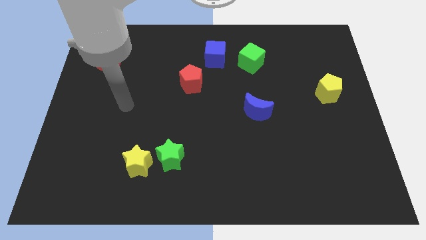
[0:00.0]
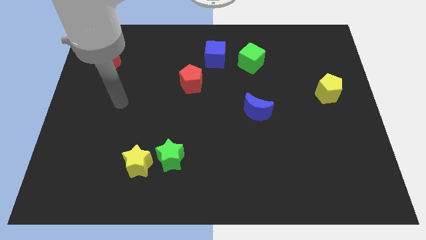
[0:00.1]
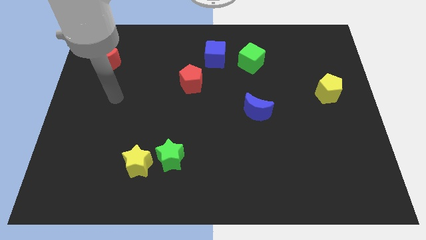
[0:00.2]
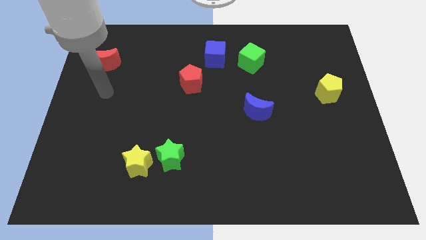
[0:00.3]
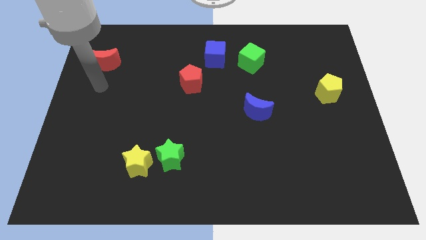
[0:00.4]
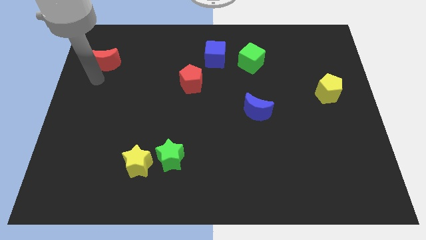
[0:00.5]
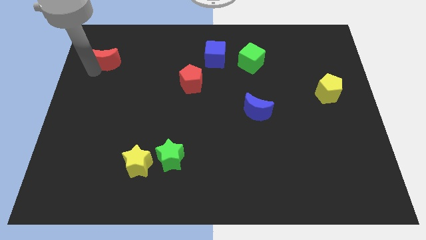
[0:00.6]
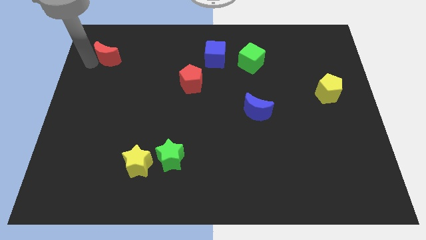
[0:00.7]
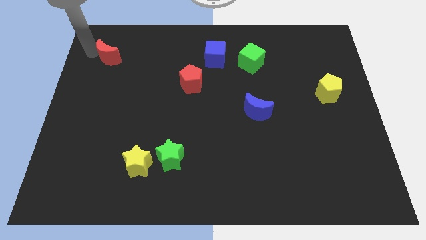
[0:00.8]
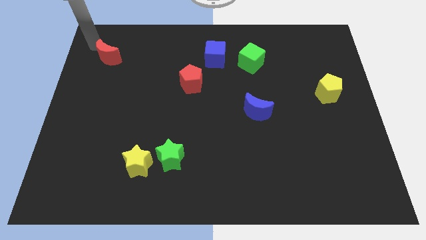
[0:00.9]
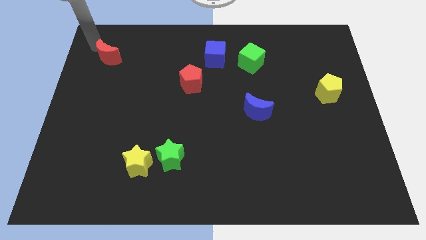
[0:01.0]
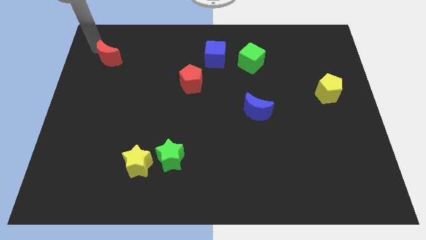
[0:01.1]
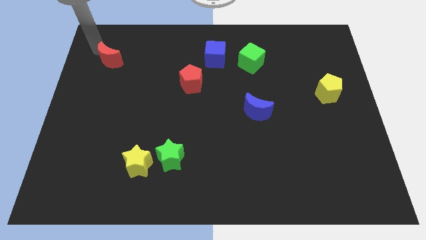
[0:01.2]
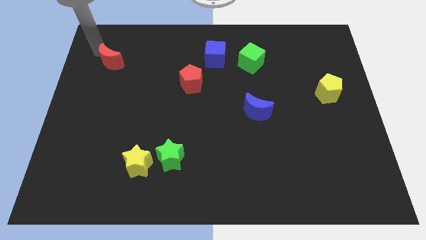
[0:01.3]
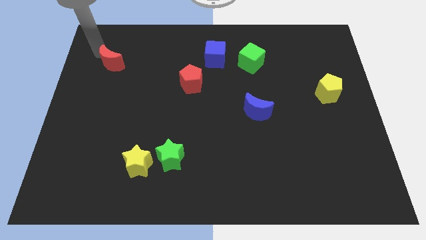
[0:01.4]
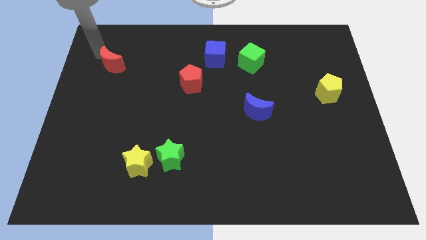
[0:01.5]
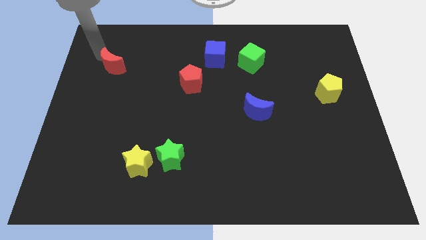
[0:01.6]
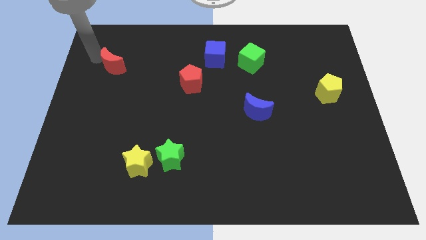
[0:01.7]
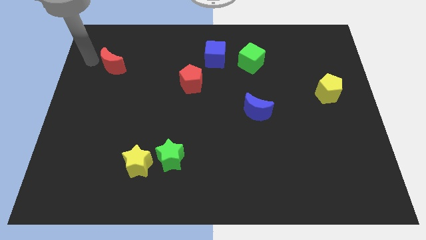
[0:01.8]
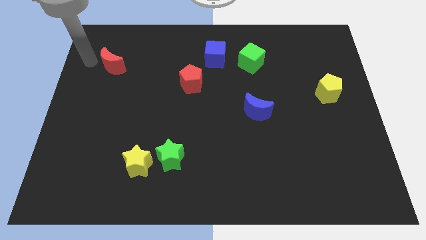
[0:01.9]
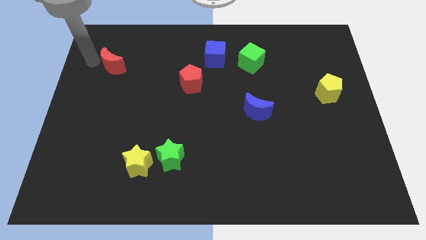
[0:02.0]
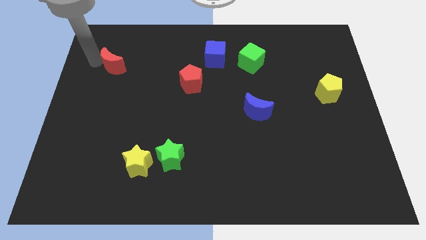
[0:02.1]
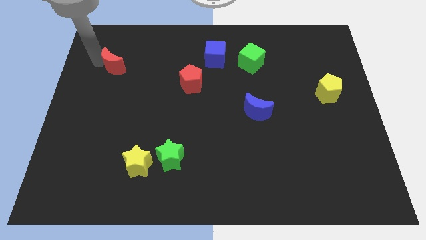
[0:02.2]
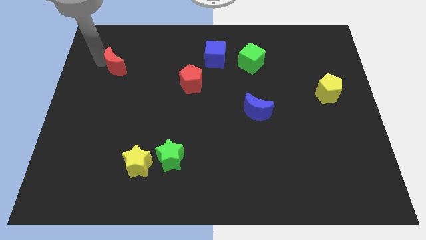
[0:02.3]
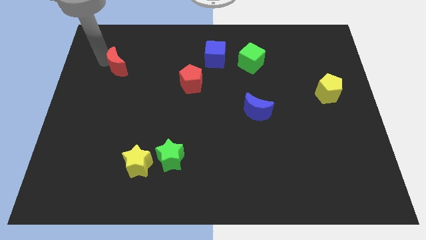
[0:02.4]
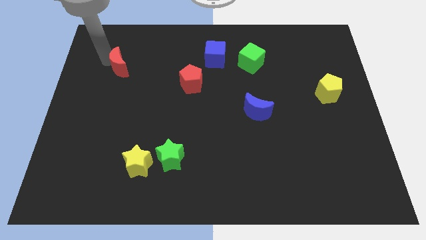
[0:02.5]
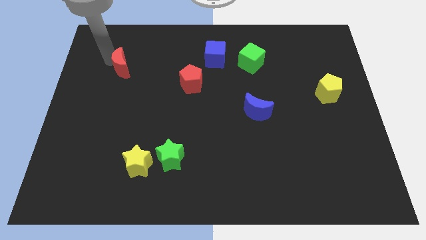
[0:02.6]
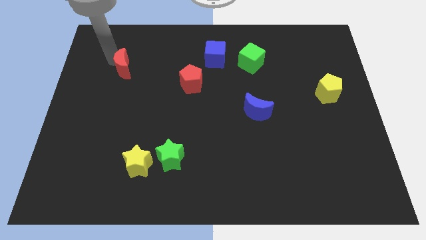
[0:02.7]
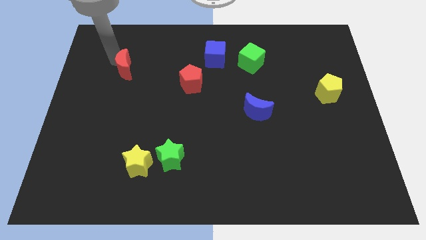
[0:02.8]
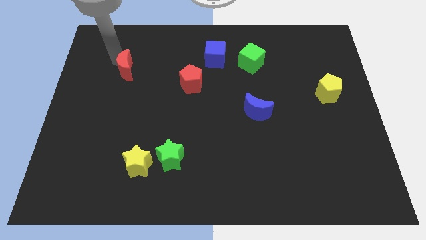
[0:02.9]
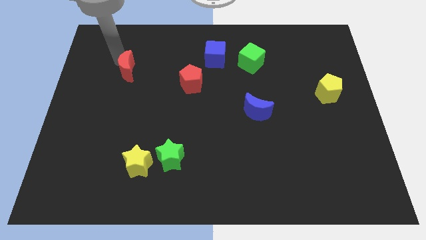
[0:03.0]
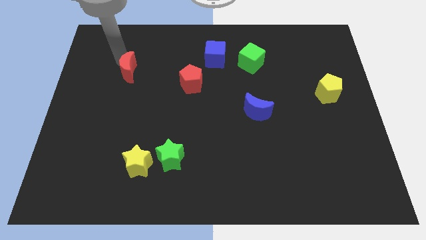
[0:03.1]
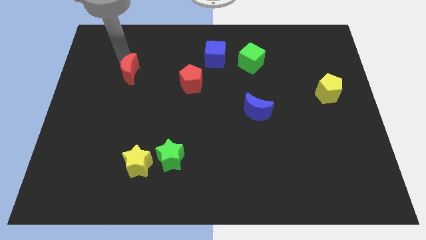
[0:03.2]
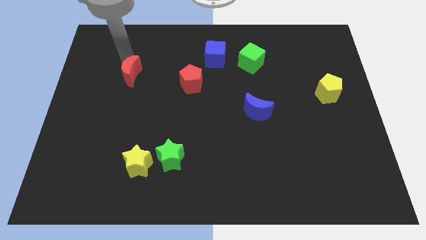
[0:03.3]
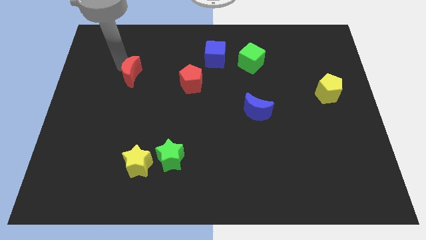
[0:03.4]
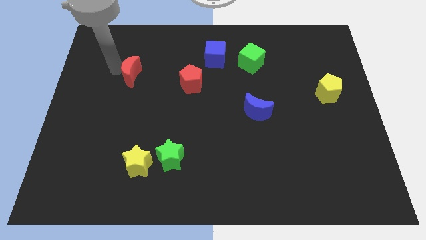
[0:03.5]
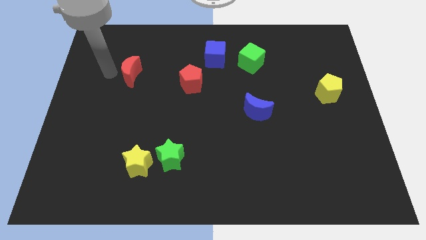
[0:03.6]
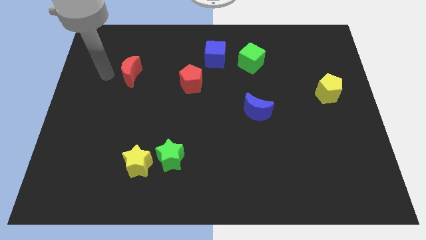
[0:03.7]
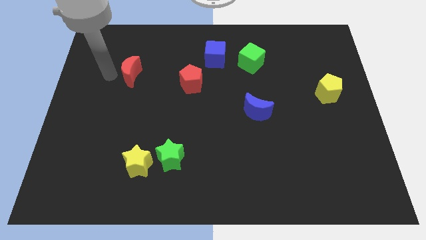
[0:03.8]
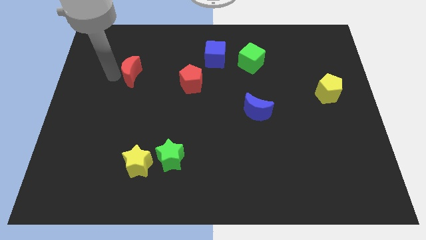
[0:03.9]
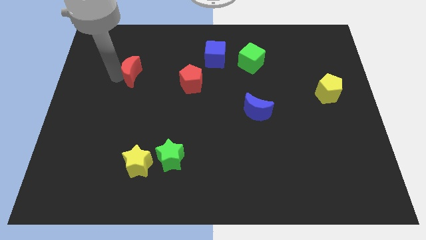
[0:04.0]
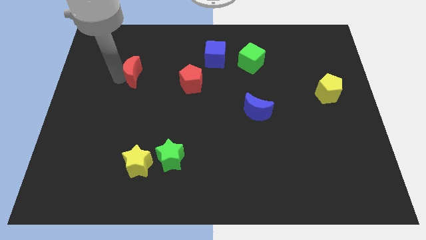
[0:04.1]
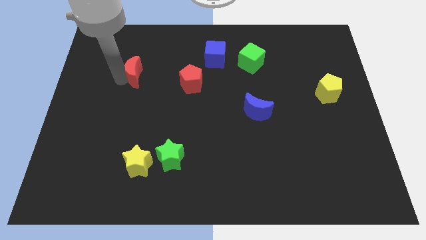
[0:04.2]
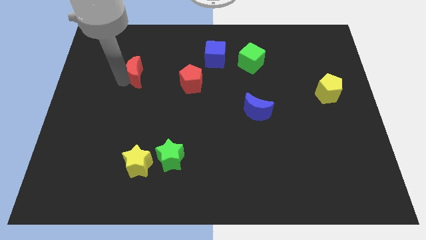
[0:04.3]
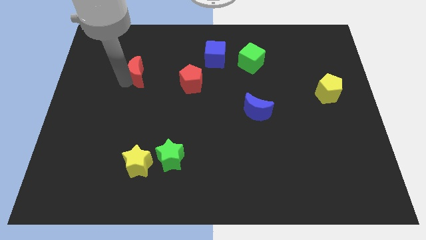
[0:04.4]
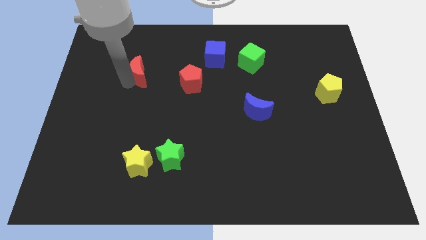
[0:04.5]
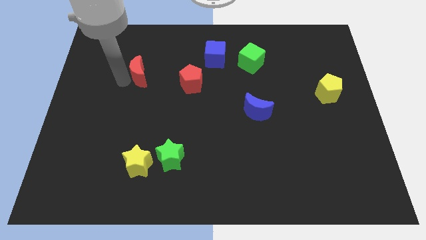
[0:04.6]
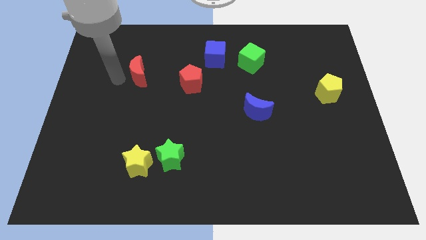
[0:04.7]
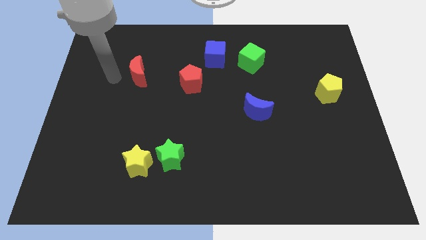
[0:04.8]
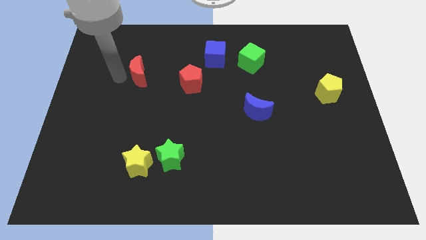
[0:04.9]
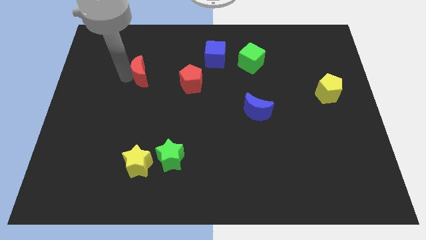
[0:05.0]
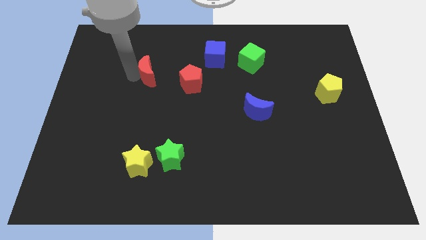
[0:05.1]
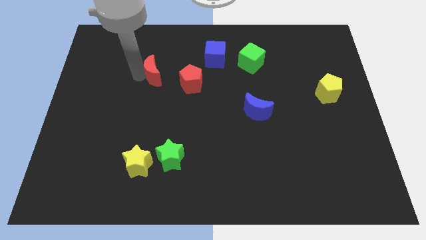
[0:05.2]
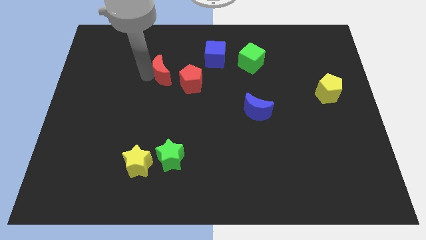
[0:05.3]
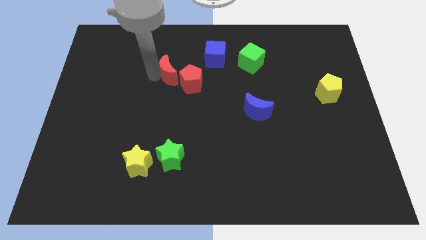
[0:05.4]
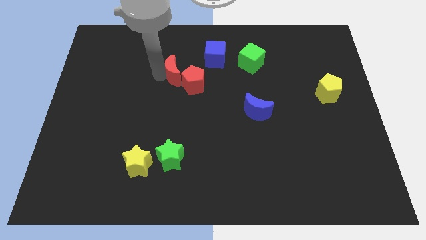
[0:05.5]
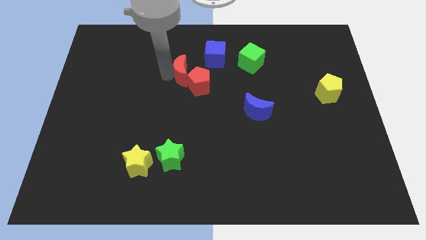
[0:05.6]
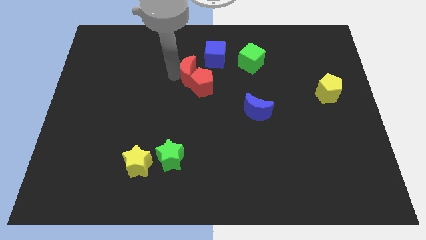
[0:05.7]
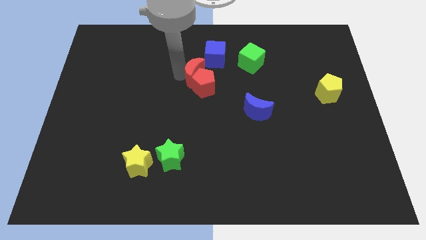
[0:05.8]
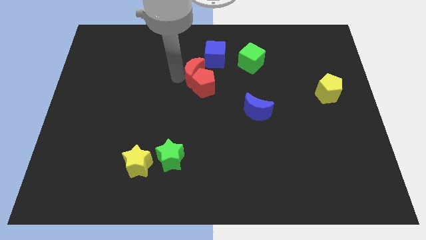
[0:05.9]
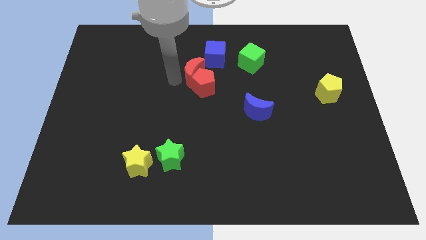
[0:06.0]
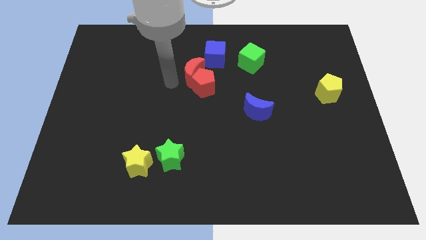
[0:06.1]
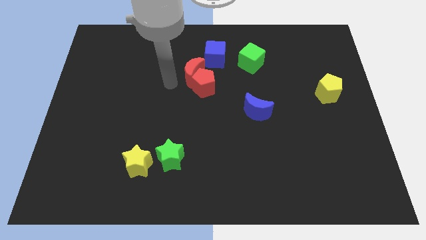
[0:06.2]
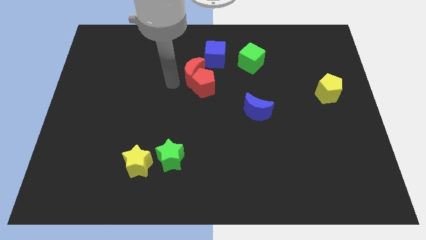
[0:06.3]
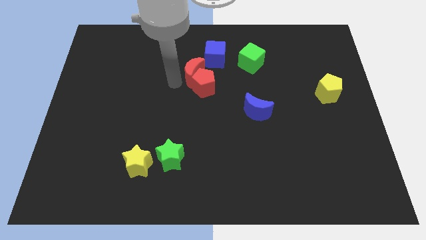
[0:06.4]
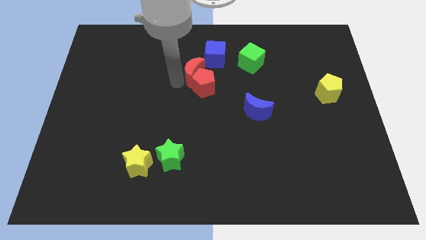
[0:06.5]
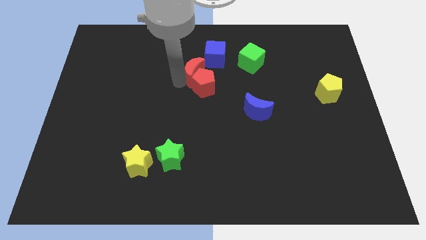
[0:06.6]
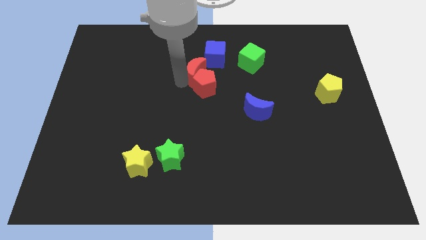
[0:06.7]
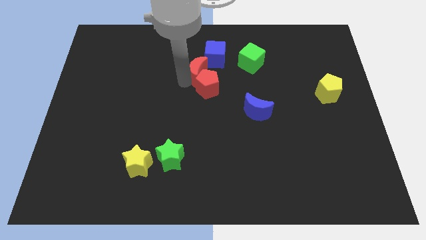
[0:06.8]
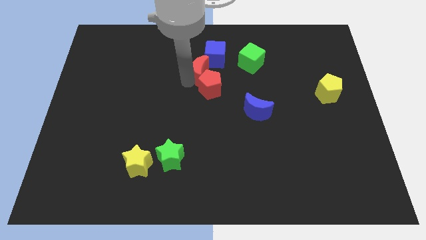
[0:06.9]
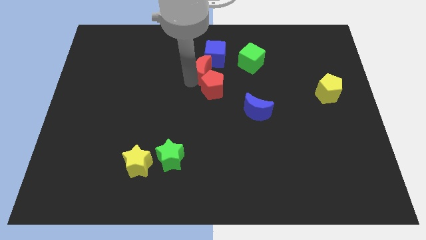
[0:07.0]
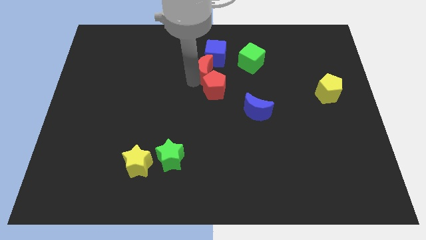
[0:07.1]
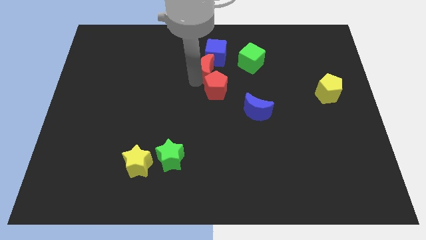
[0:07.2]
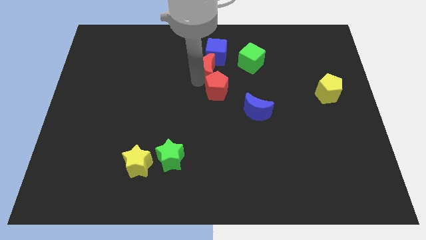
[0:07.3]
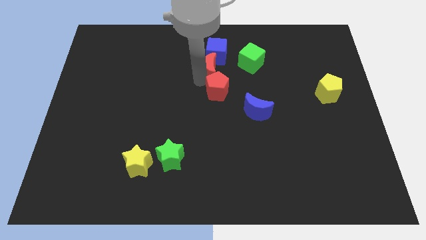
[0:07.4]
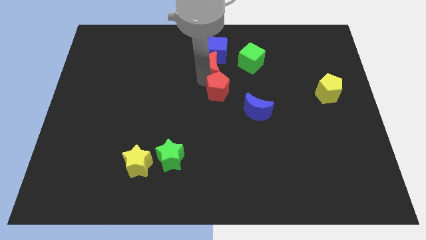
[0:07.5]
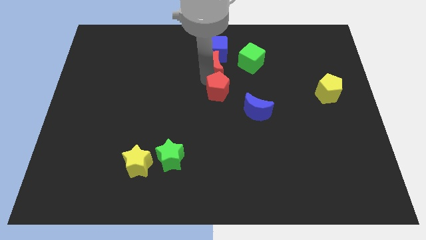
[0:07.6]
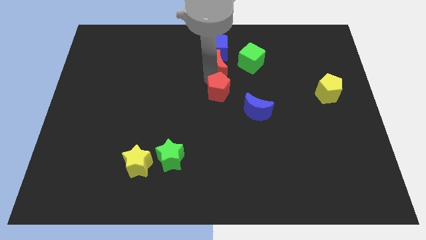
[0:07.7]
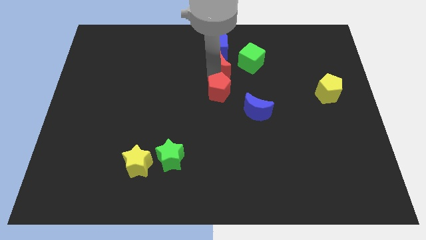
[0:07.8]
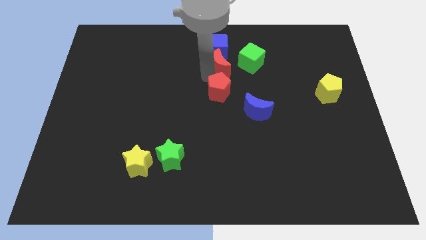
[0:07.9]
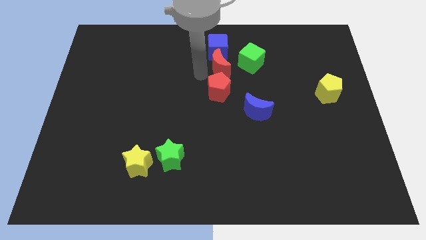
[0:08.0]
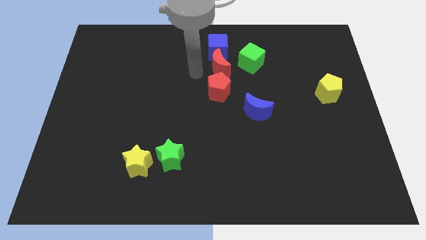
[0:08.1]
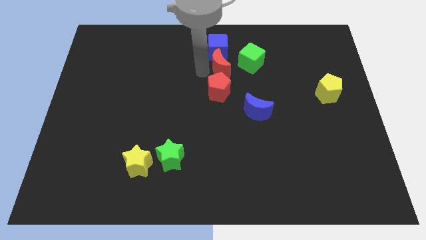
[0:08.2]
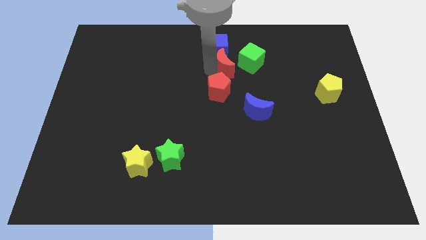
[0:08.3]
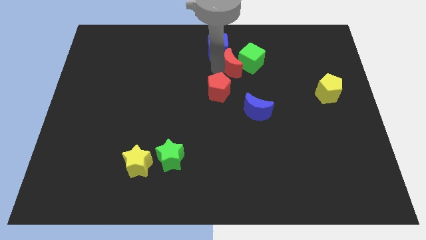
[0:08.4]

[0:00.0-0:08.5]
put the red moon close to the green cube
